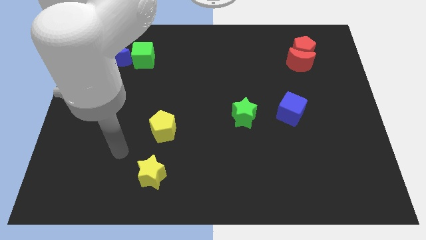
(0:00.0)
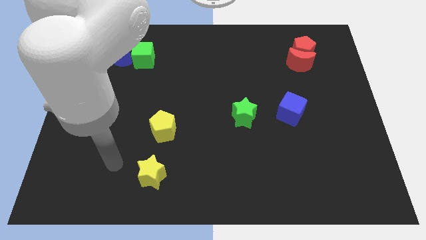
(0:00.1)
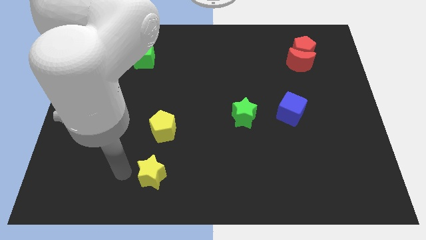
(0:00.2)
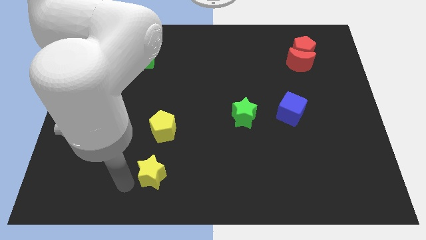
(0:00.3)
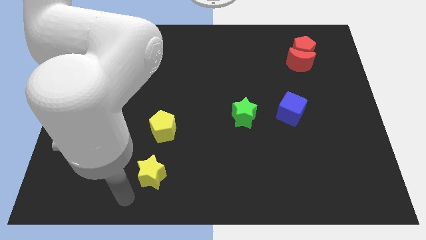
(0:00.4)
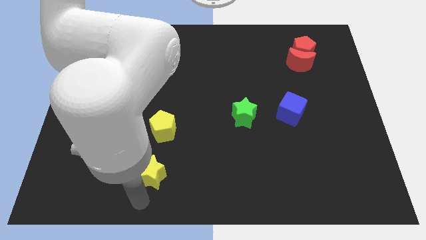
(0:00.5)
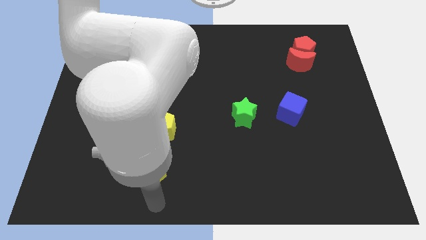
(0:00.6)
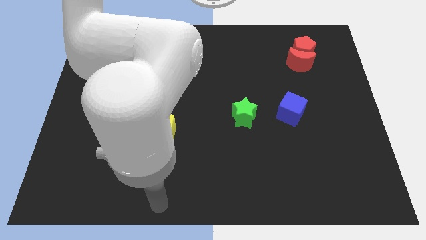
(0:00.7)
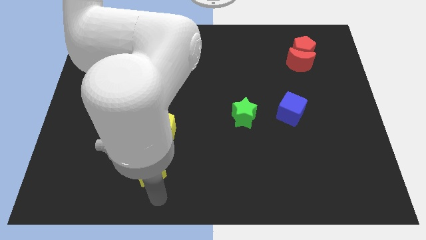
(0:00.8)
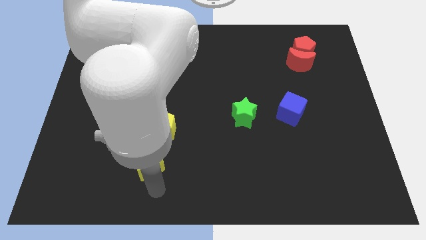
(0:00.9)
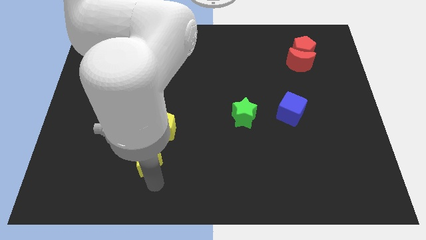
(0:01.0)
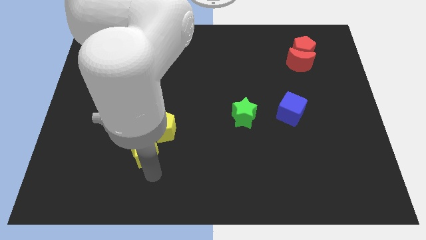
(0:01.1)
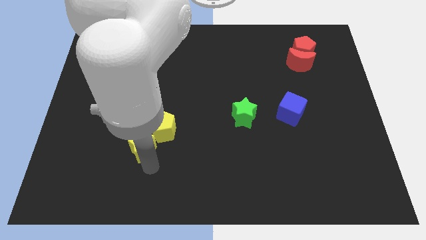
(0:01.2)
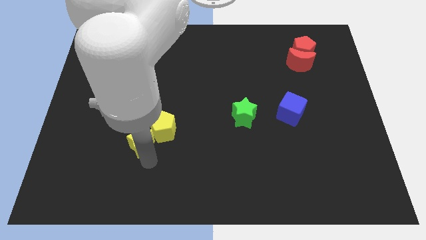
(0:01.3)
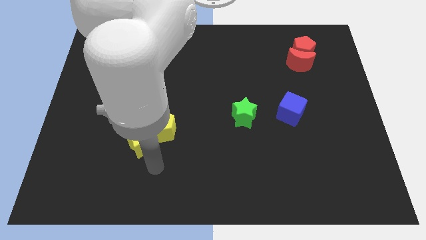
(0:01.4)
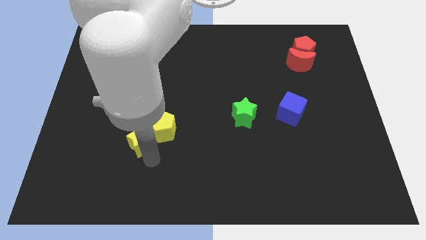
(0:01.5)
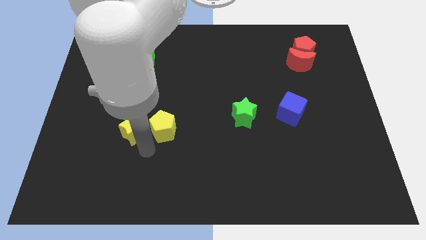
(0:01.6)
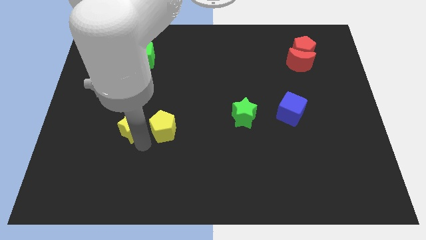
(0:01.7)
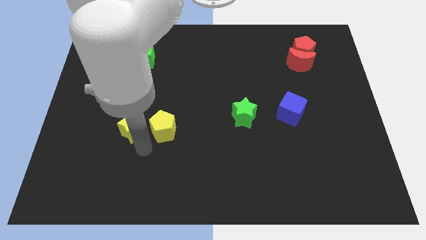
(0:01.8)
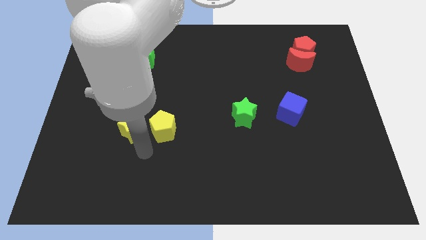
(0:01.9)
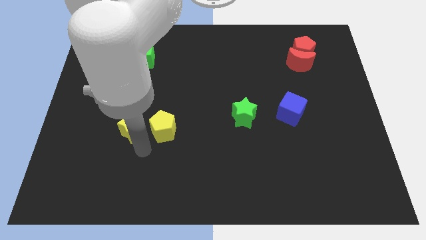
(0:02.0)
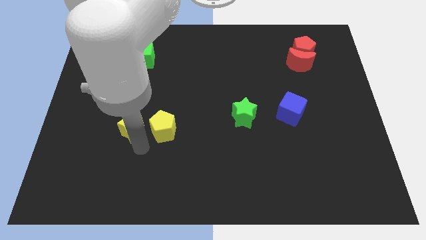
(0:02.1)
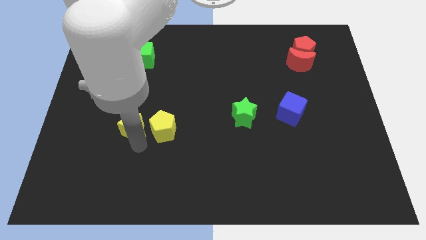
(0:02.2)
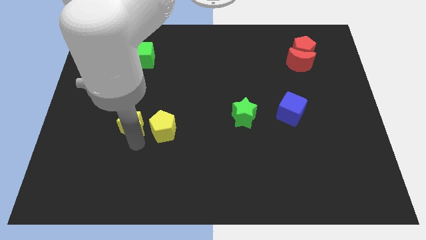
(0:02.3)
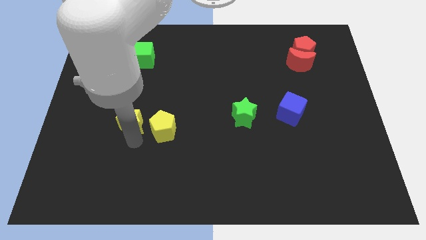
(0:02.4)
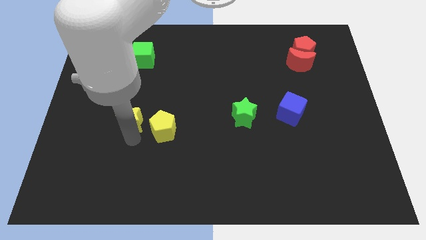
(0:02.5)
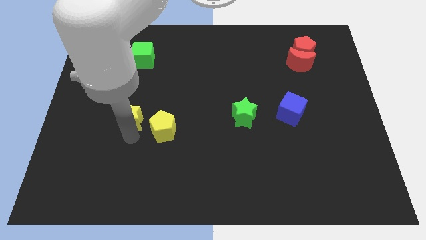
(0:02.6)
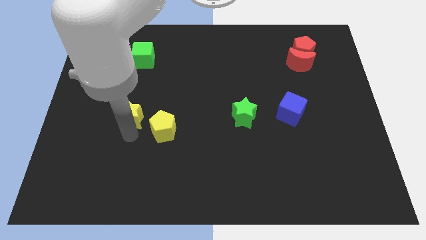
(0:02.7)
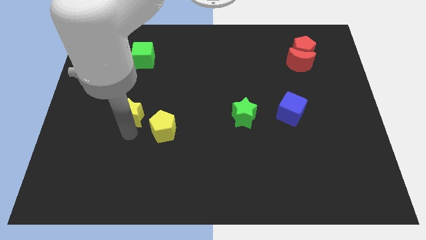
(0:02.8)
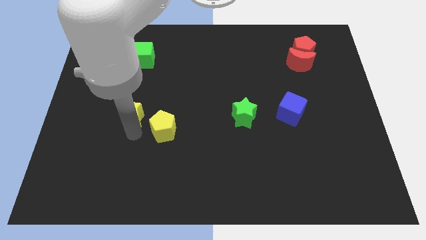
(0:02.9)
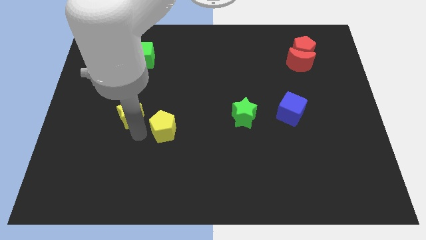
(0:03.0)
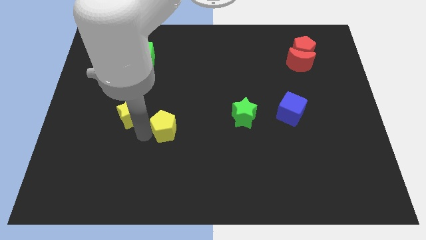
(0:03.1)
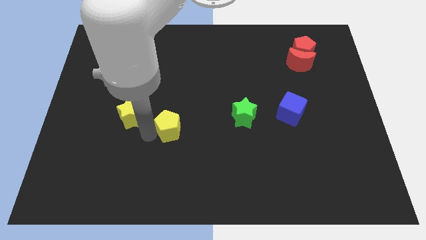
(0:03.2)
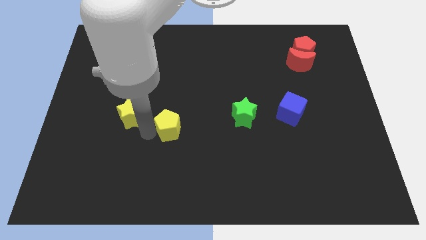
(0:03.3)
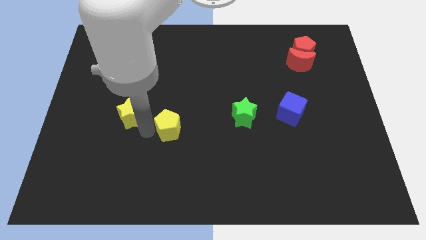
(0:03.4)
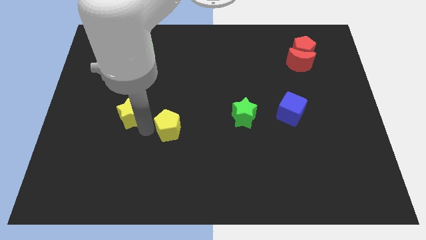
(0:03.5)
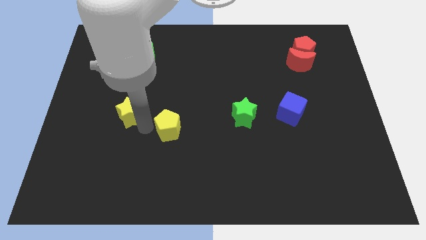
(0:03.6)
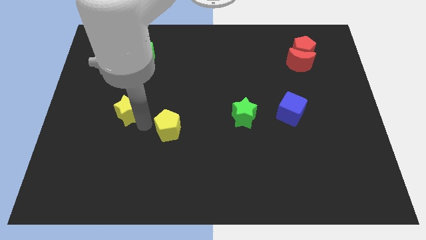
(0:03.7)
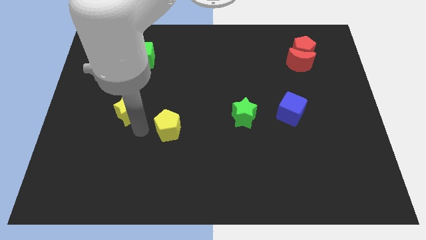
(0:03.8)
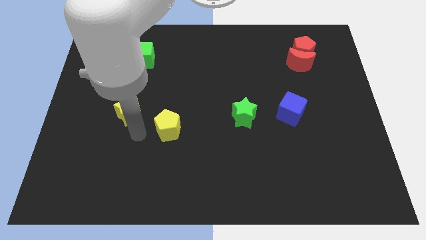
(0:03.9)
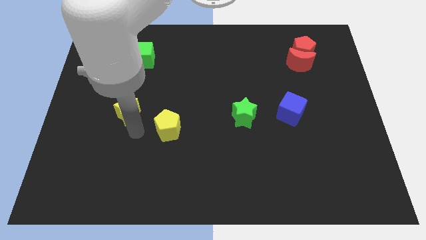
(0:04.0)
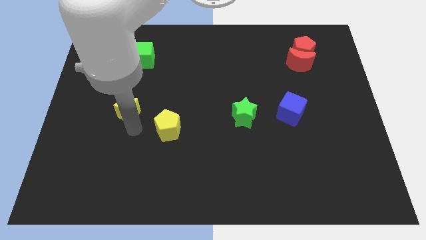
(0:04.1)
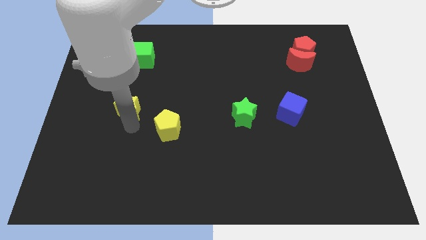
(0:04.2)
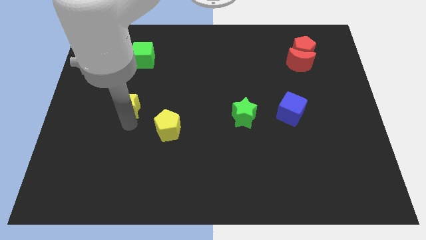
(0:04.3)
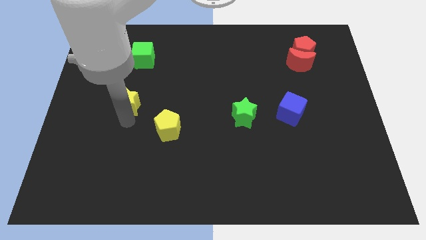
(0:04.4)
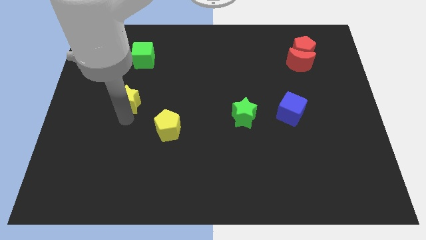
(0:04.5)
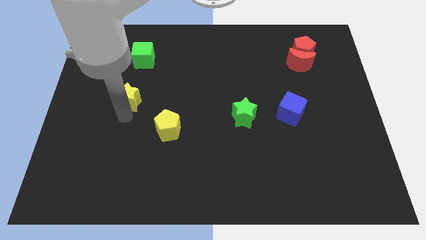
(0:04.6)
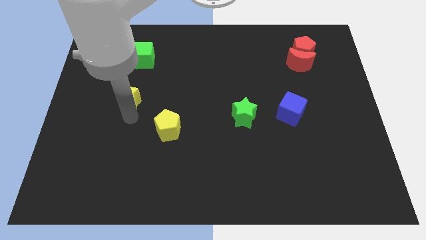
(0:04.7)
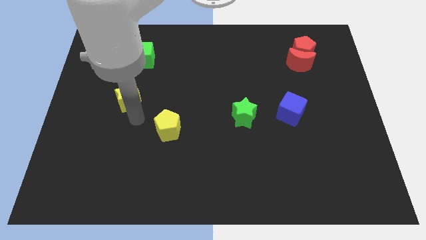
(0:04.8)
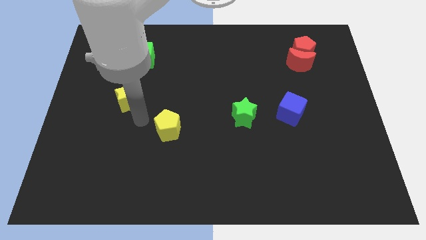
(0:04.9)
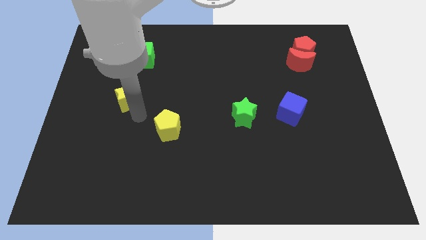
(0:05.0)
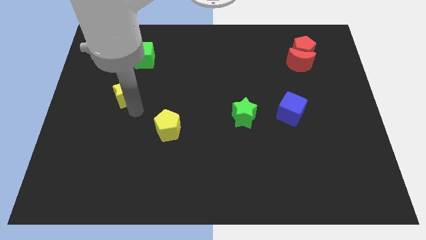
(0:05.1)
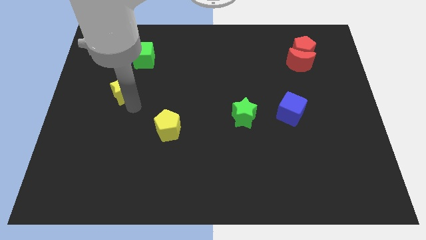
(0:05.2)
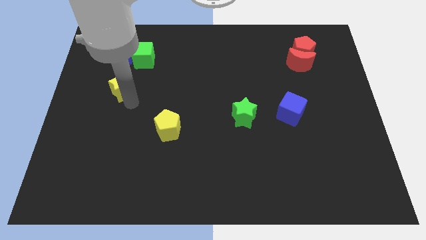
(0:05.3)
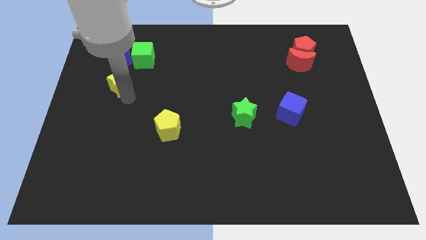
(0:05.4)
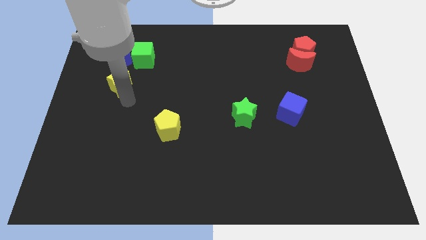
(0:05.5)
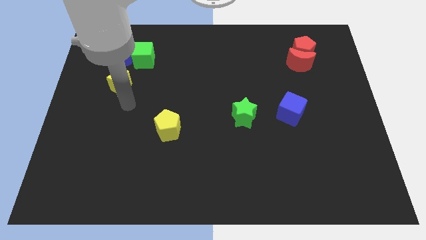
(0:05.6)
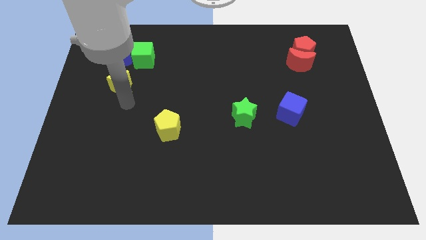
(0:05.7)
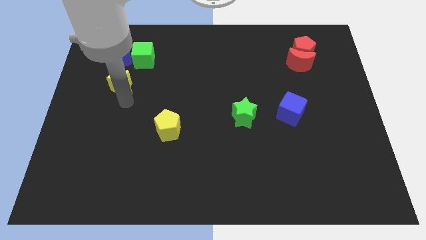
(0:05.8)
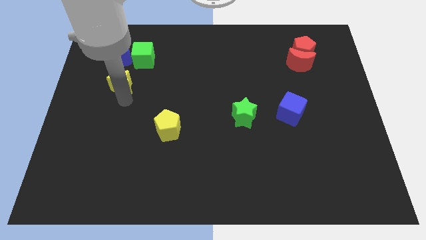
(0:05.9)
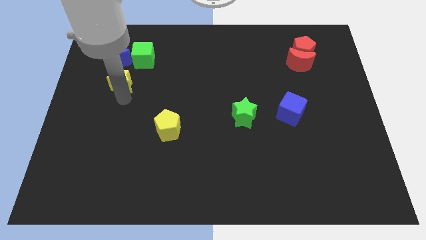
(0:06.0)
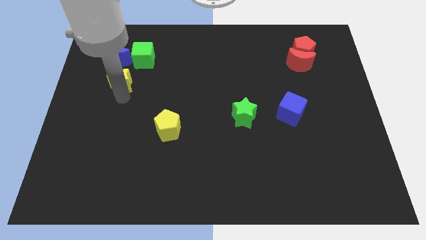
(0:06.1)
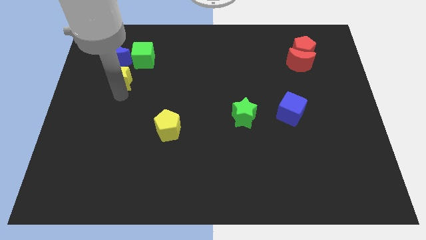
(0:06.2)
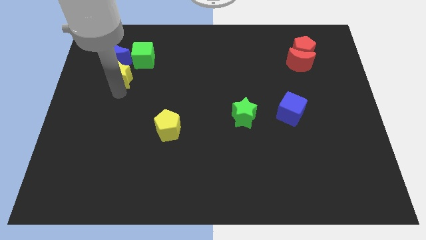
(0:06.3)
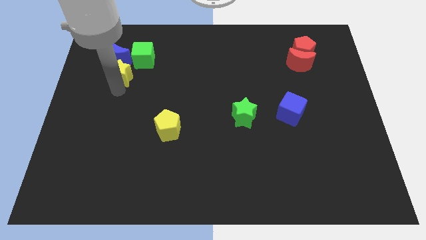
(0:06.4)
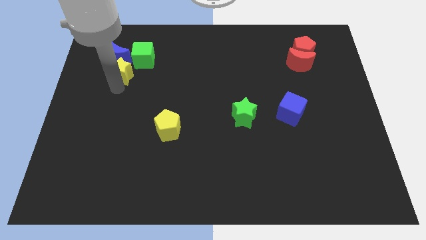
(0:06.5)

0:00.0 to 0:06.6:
slide the yellow star to the blue moon
